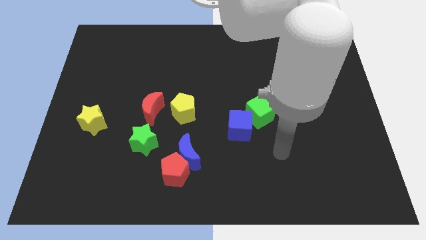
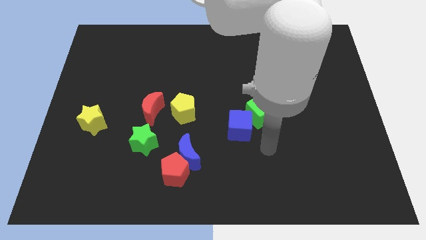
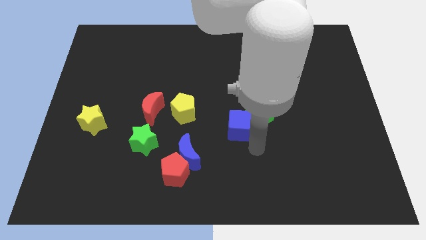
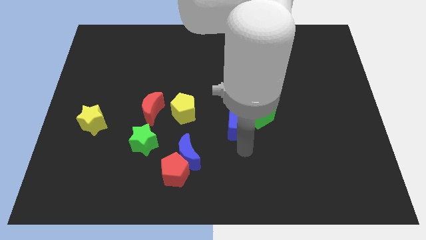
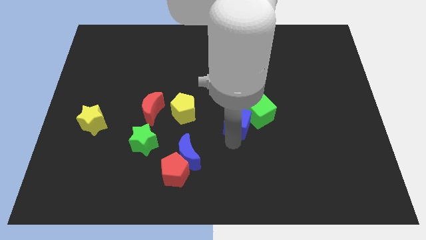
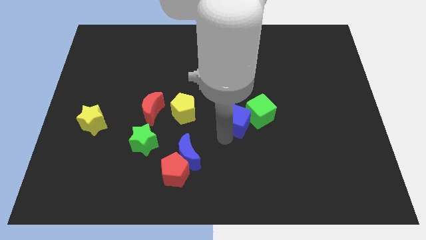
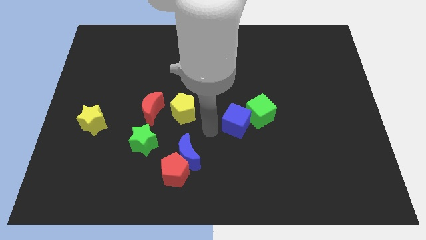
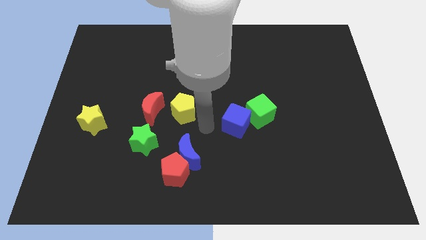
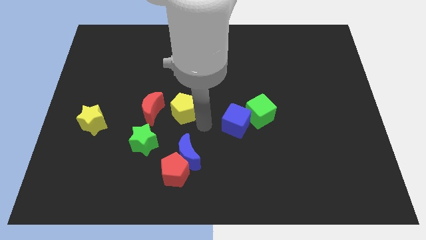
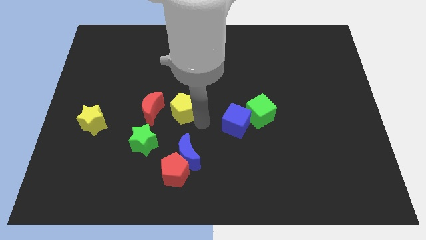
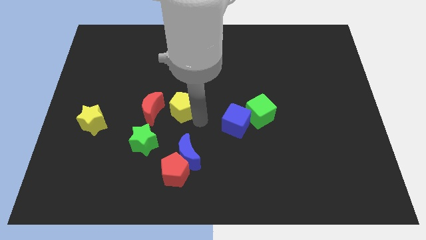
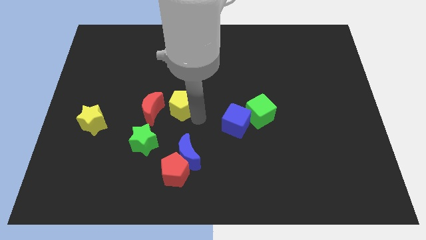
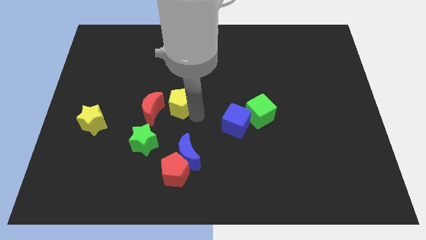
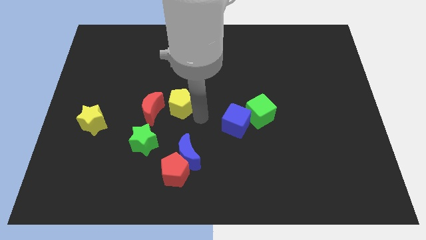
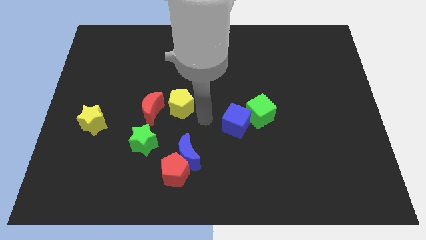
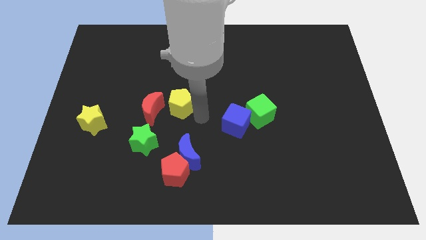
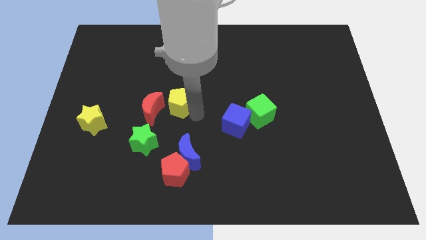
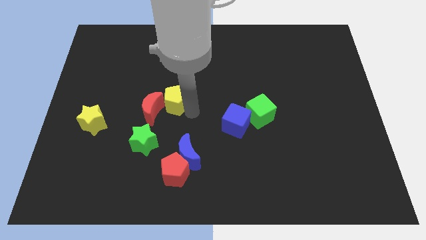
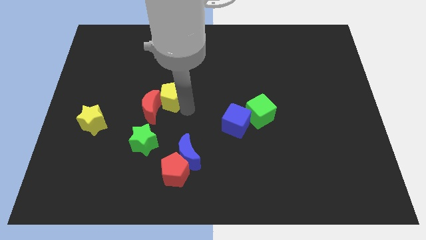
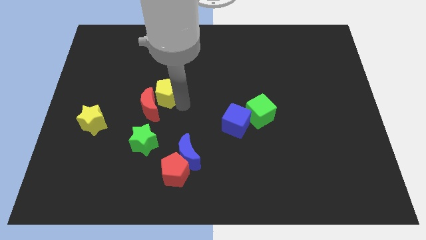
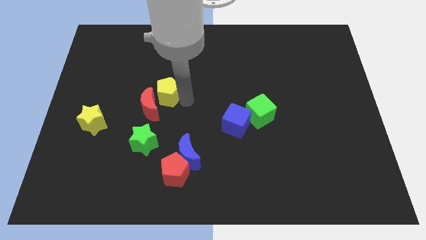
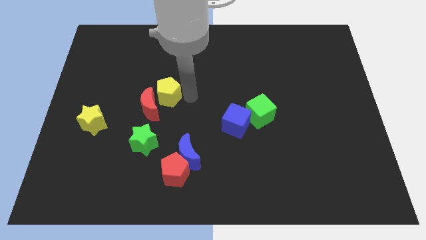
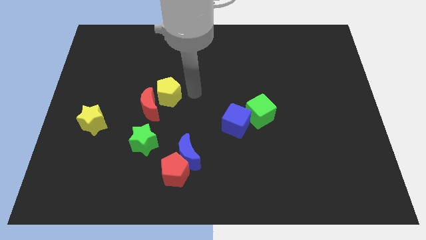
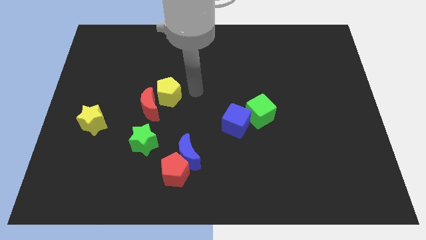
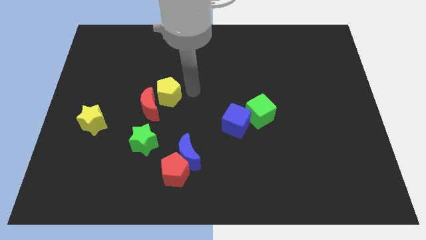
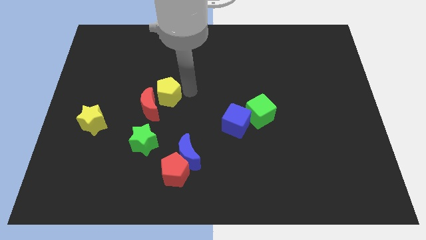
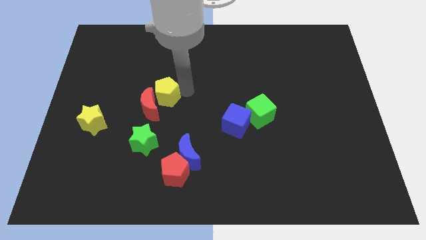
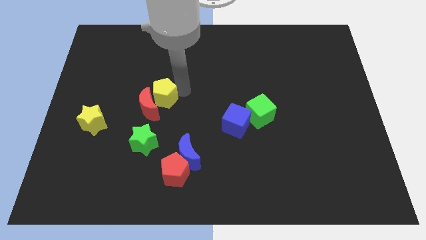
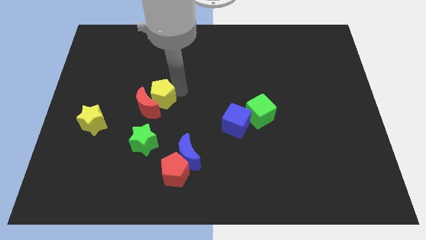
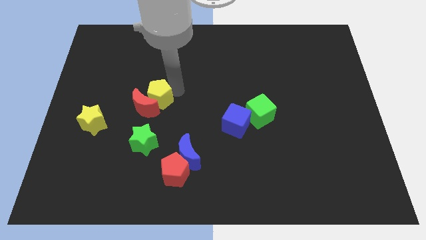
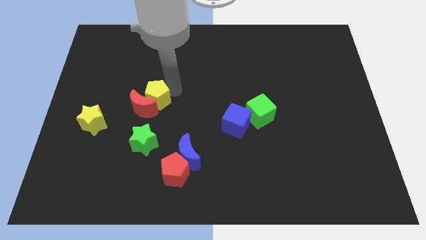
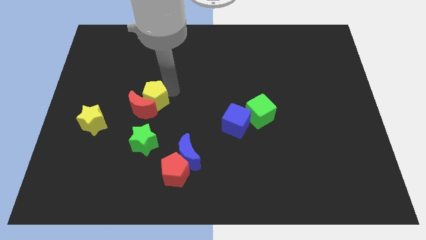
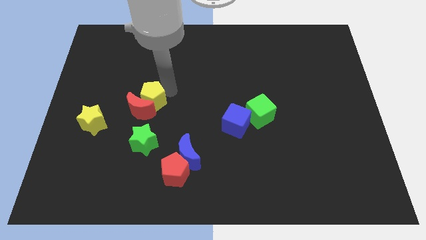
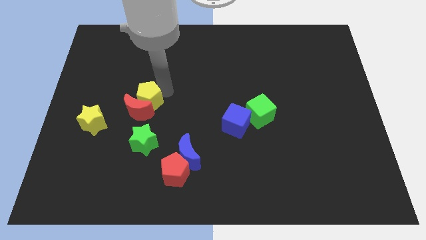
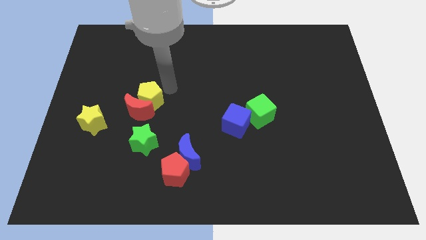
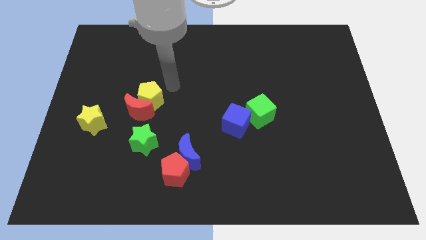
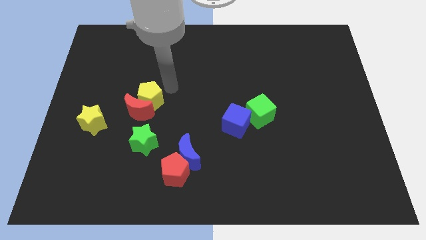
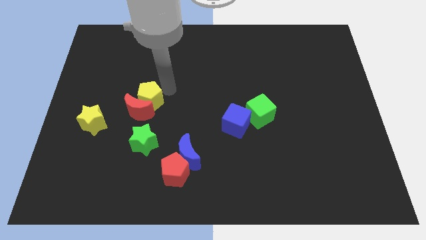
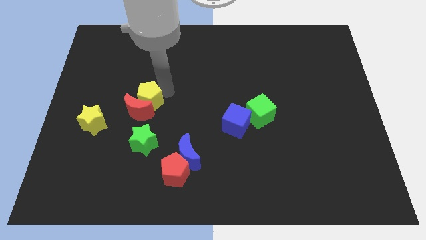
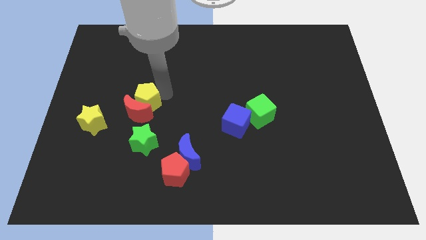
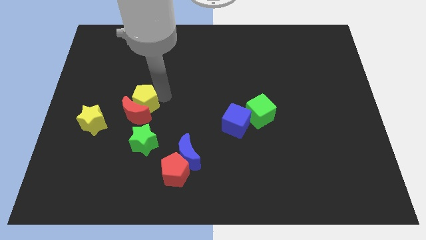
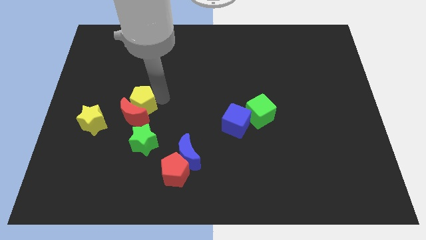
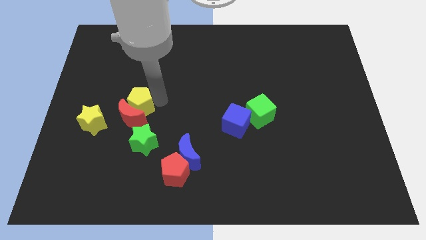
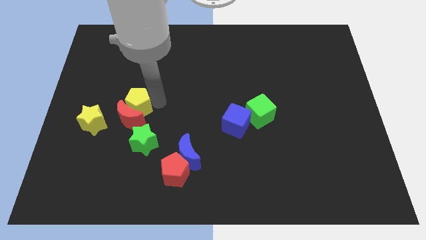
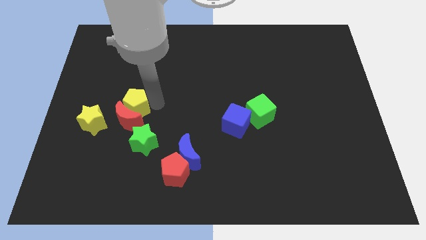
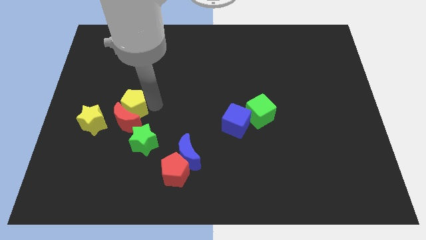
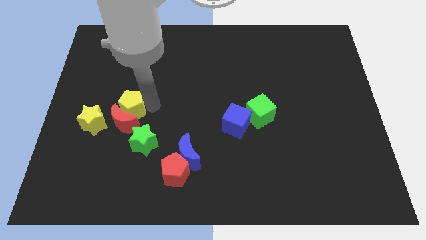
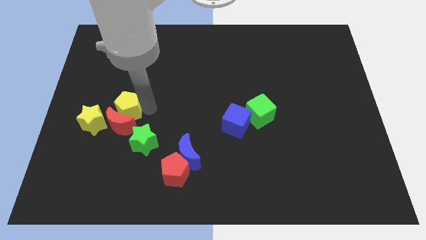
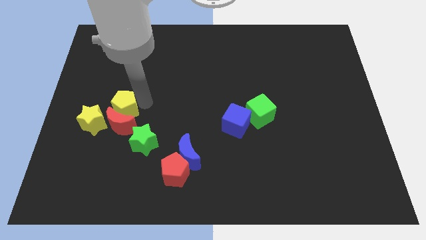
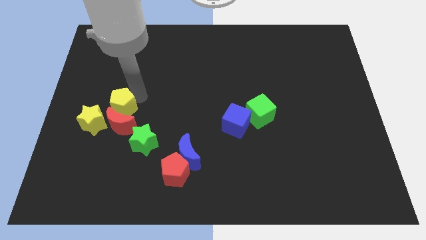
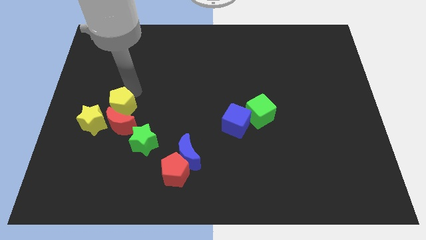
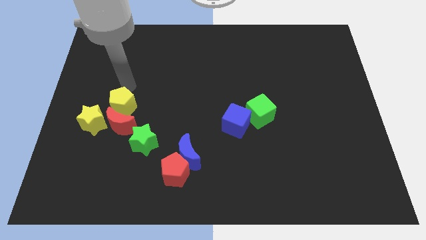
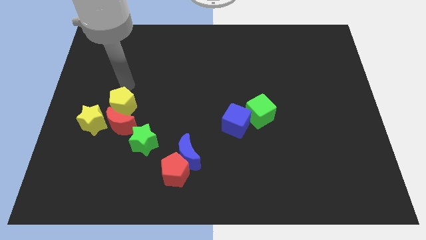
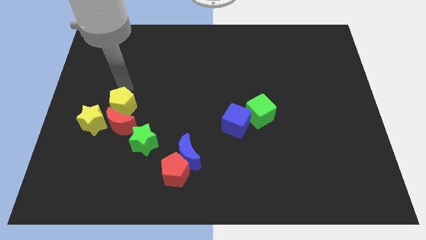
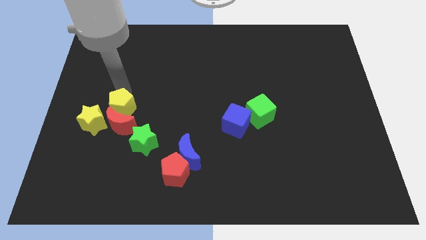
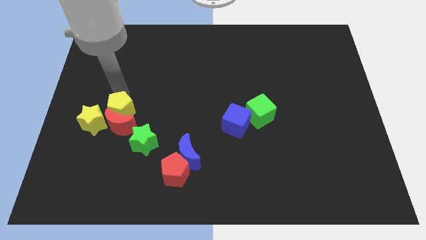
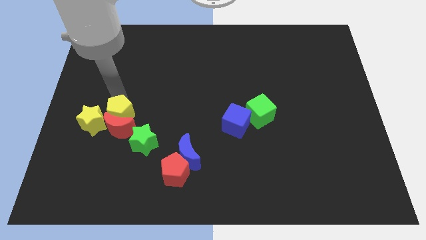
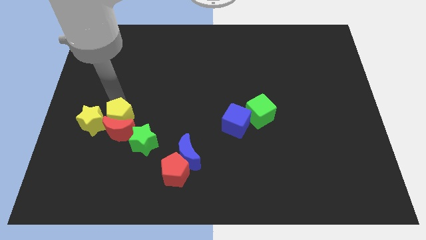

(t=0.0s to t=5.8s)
slightly move the yellow pentagon down and left

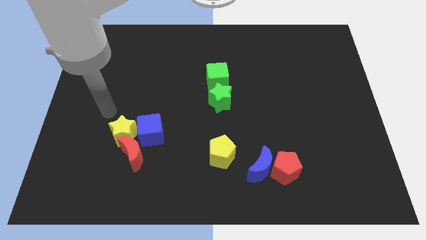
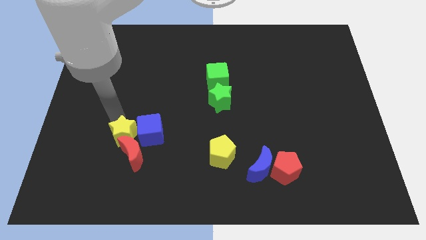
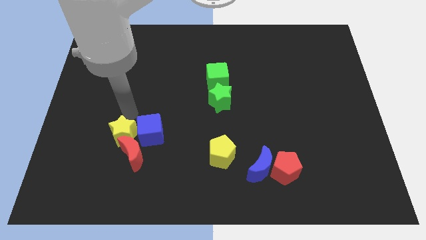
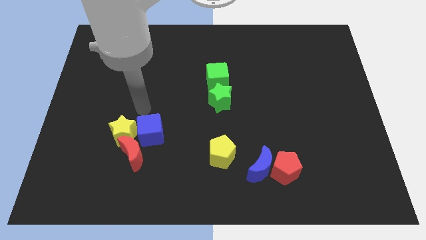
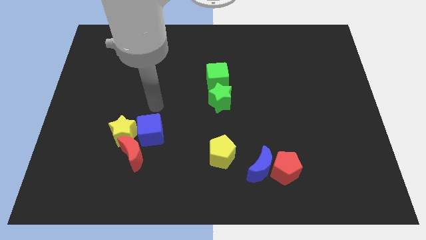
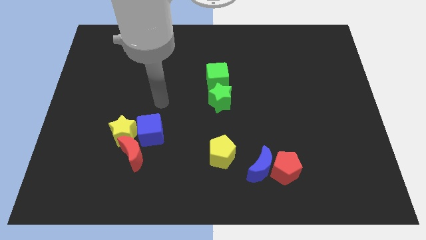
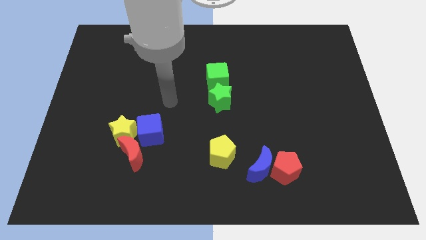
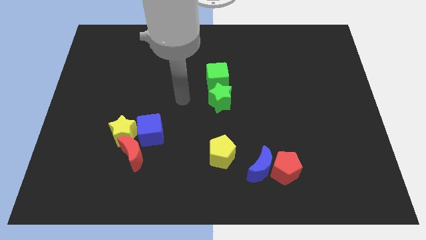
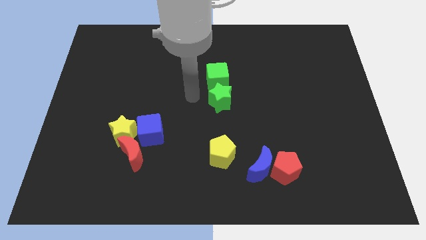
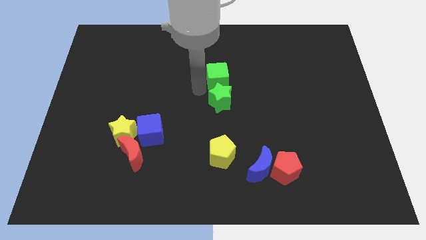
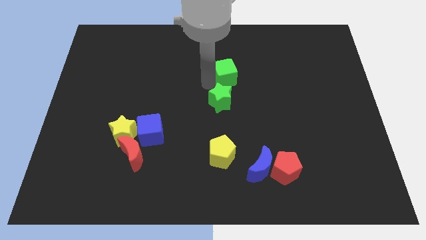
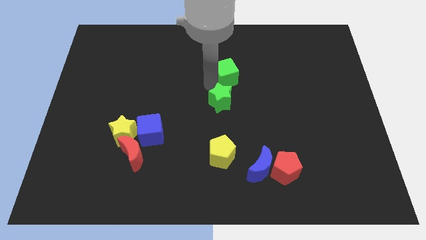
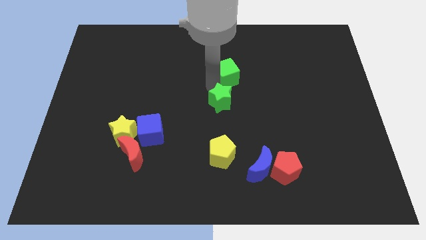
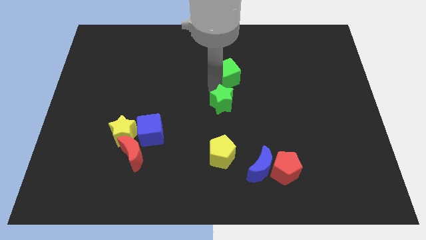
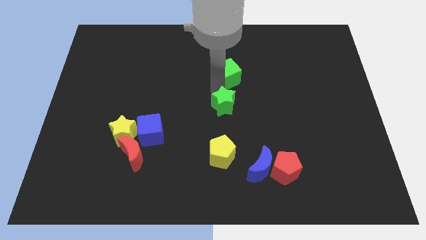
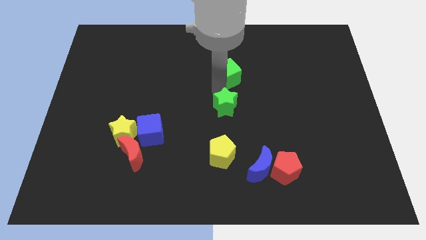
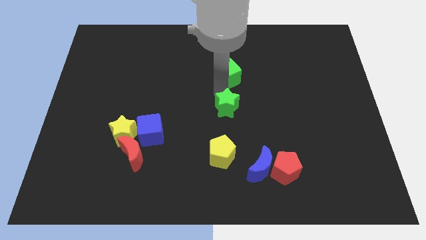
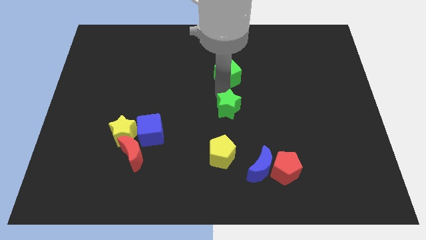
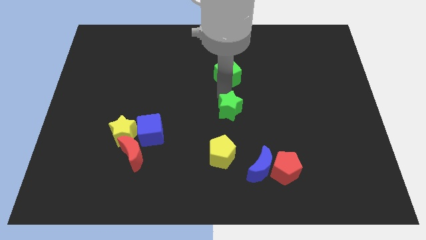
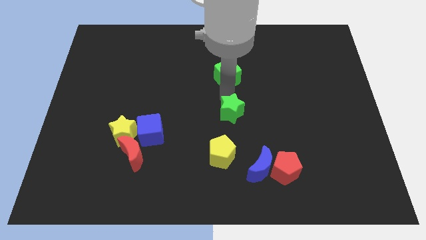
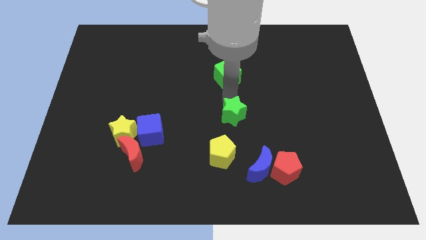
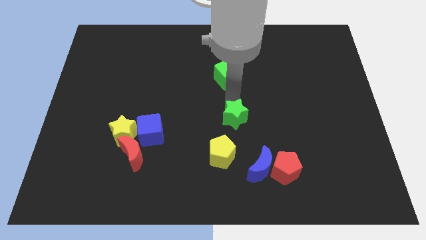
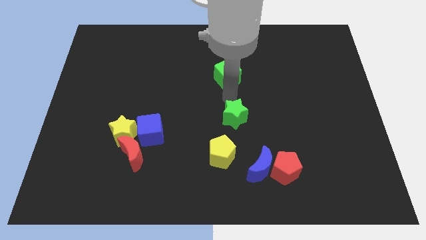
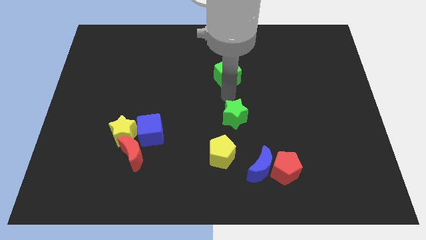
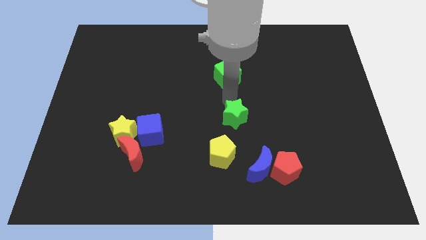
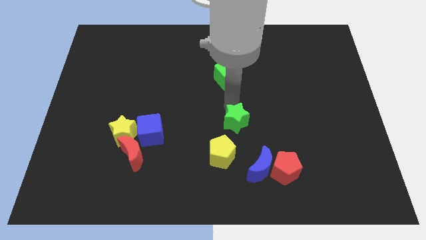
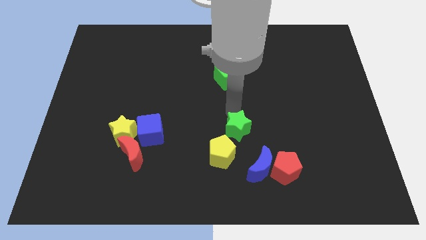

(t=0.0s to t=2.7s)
slightly move the green star downwards
